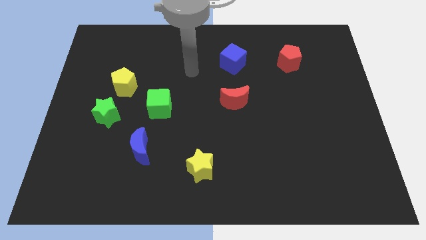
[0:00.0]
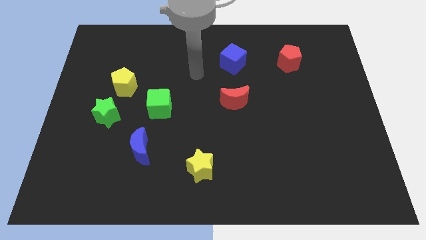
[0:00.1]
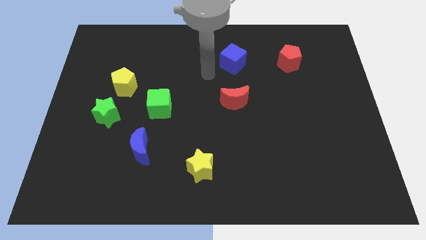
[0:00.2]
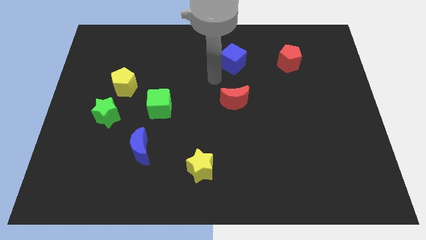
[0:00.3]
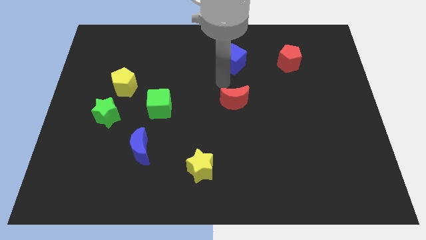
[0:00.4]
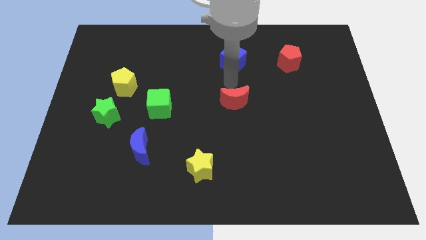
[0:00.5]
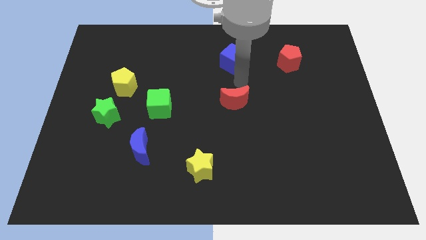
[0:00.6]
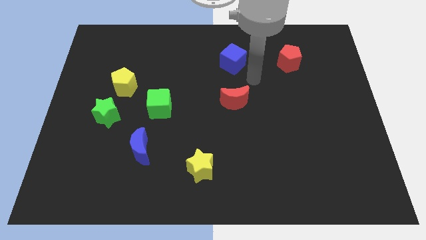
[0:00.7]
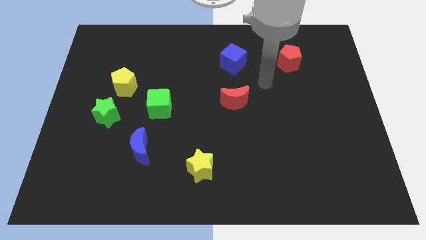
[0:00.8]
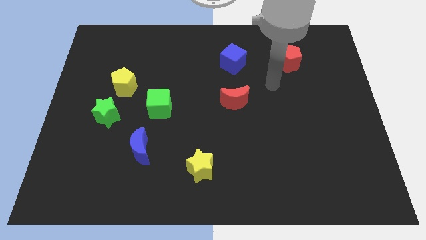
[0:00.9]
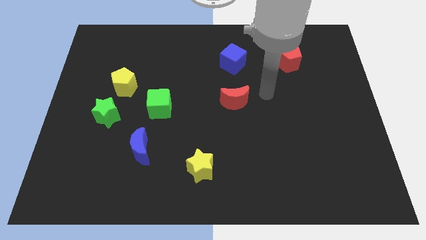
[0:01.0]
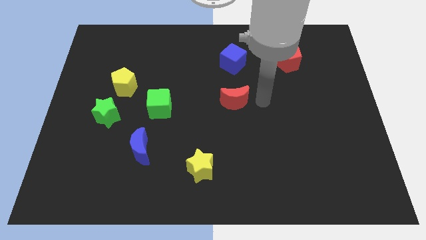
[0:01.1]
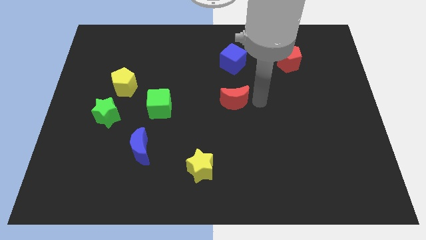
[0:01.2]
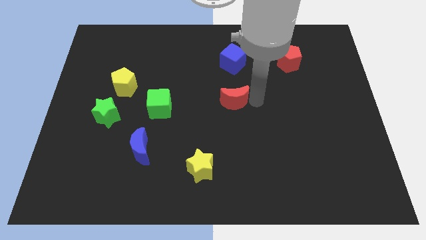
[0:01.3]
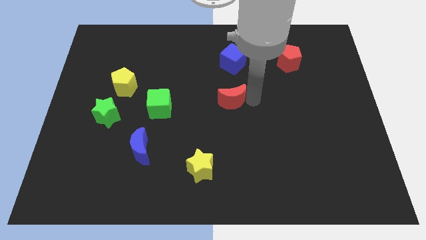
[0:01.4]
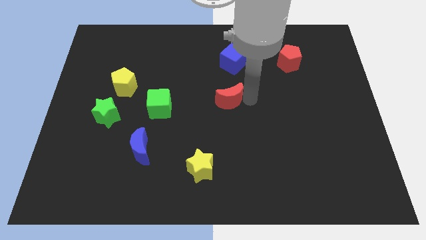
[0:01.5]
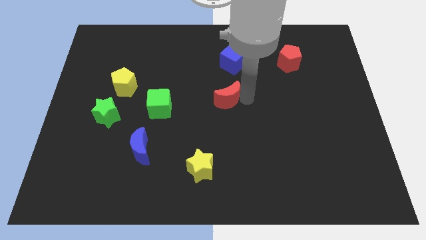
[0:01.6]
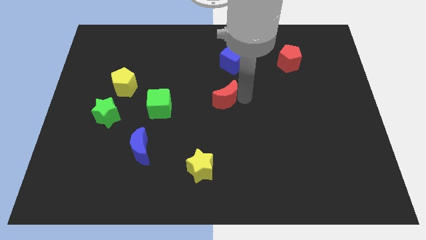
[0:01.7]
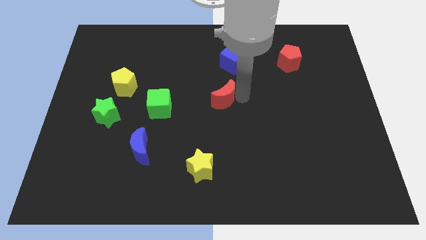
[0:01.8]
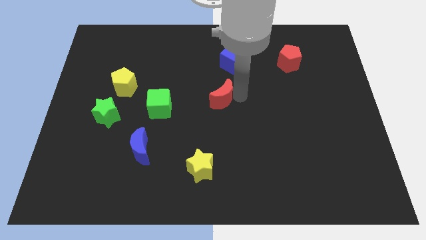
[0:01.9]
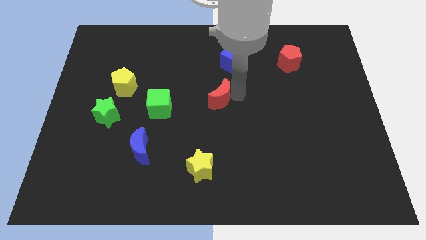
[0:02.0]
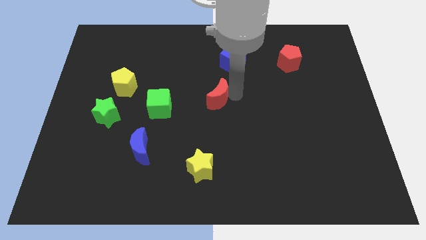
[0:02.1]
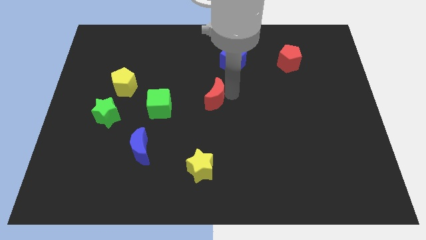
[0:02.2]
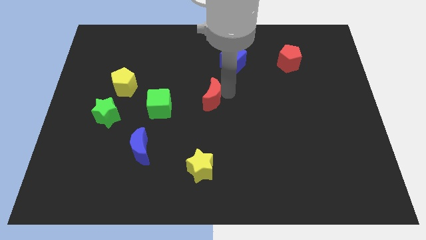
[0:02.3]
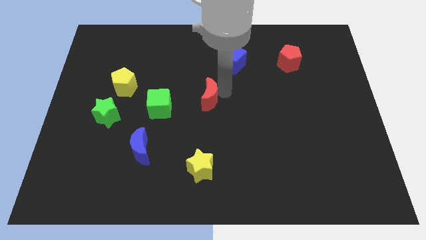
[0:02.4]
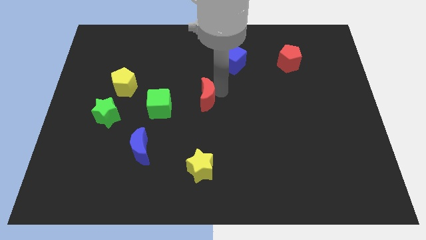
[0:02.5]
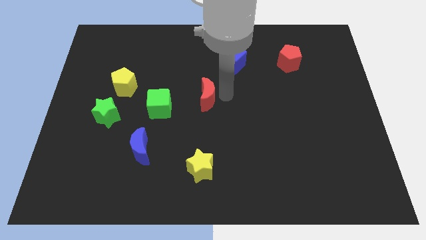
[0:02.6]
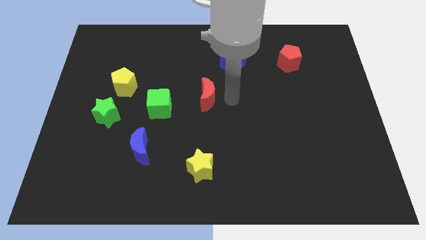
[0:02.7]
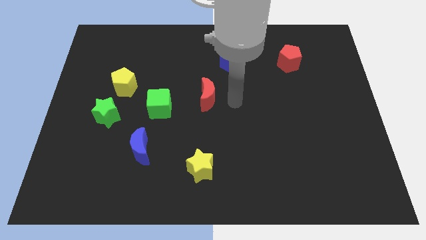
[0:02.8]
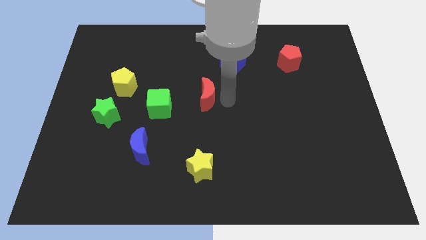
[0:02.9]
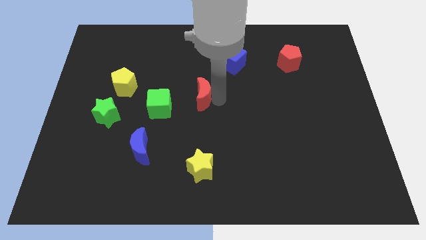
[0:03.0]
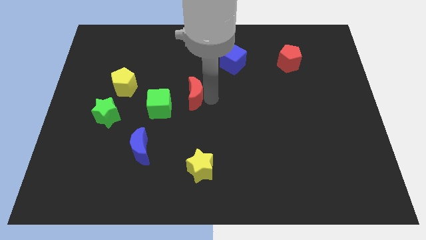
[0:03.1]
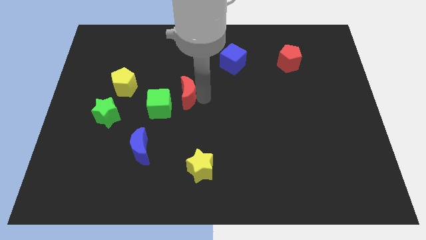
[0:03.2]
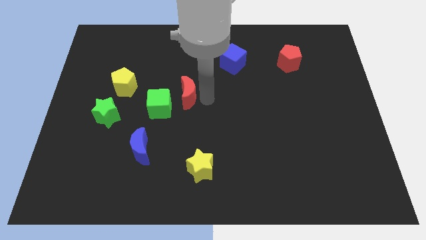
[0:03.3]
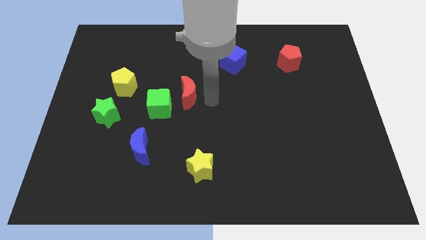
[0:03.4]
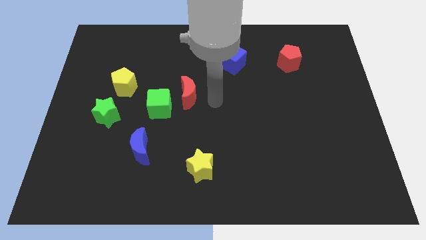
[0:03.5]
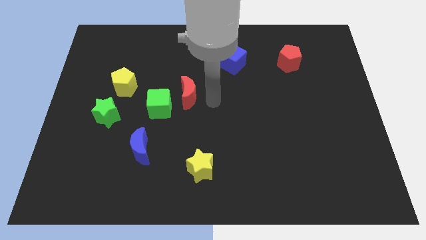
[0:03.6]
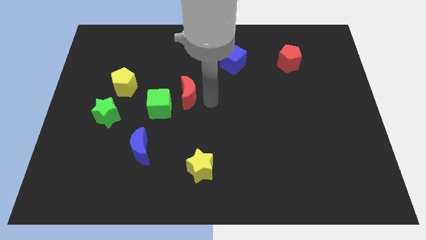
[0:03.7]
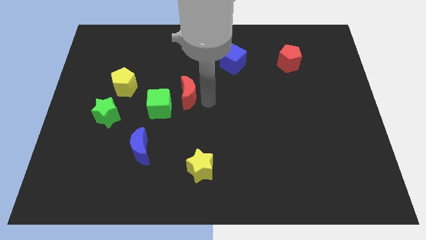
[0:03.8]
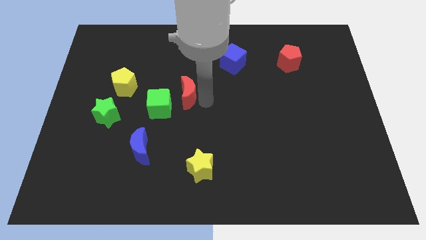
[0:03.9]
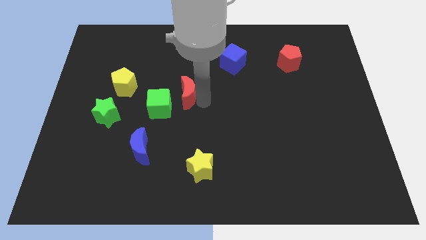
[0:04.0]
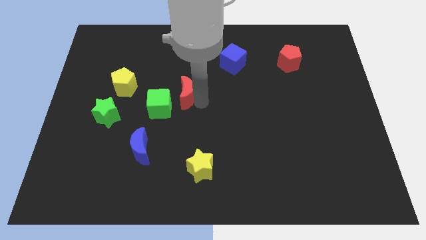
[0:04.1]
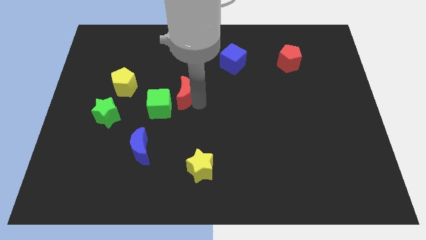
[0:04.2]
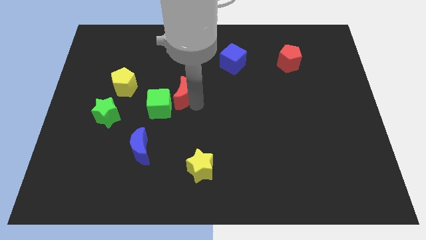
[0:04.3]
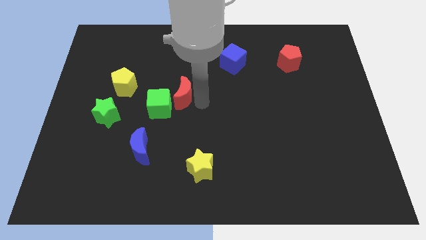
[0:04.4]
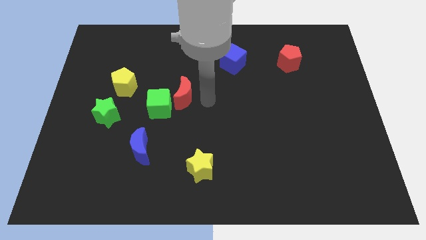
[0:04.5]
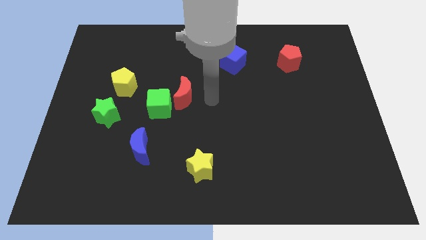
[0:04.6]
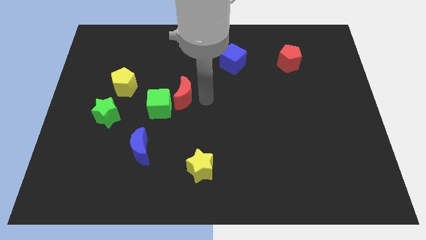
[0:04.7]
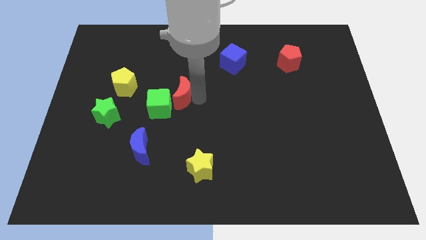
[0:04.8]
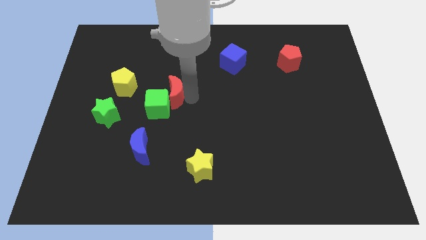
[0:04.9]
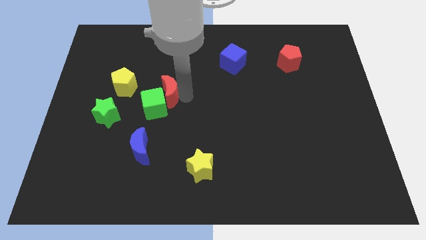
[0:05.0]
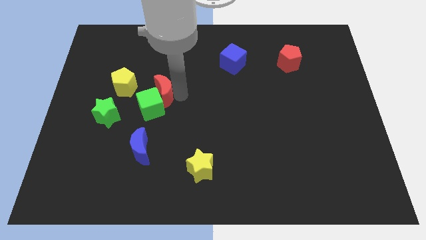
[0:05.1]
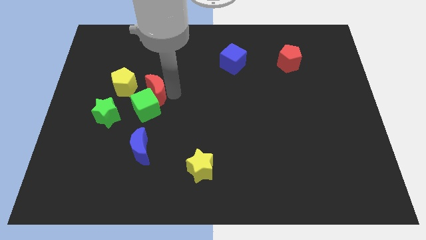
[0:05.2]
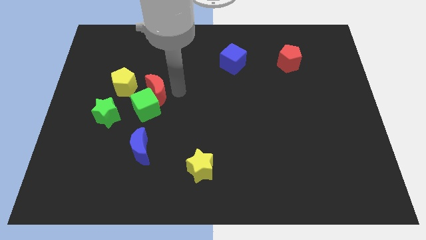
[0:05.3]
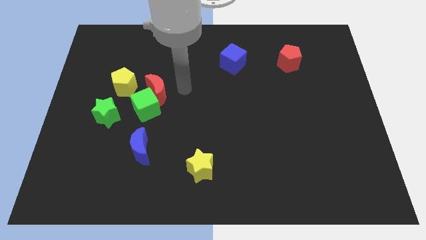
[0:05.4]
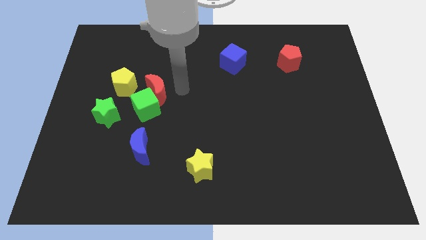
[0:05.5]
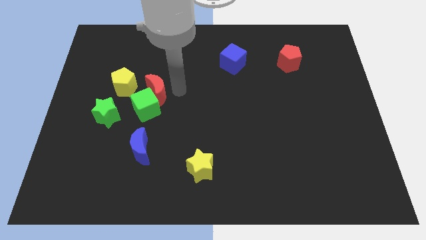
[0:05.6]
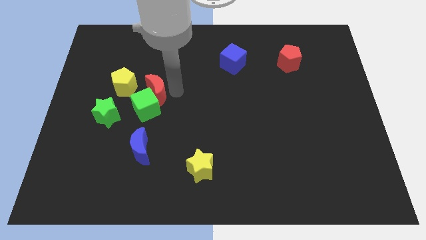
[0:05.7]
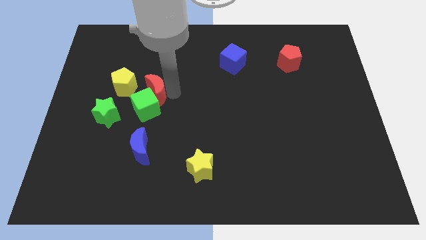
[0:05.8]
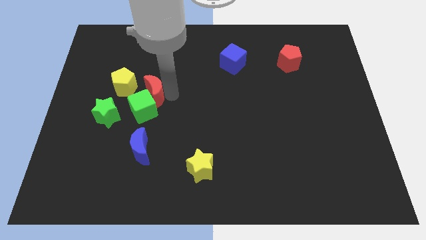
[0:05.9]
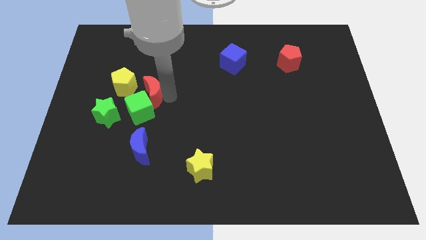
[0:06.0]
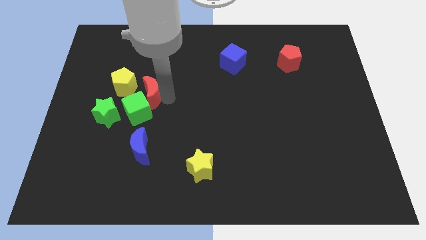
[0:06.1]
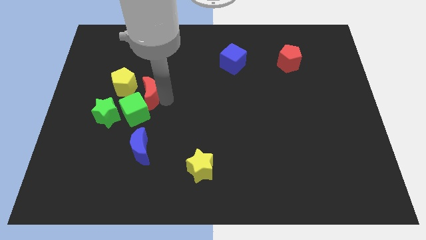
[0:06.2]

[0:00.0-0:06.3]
push the red moon left

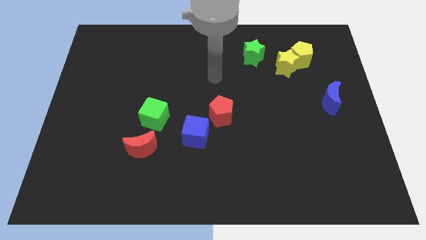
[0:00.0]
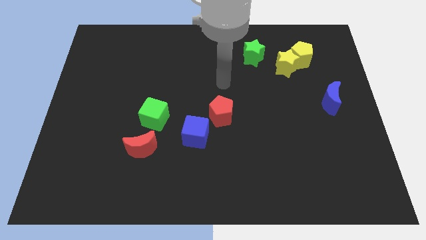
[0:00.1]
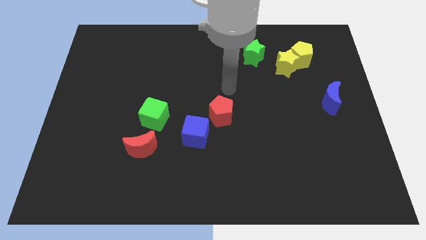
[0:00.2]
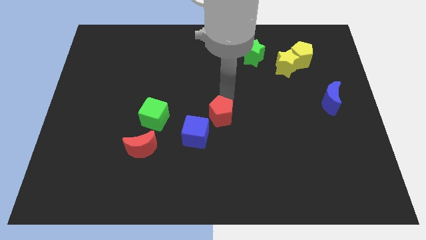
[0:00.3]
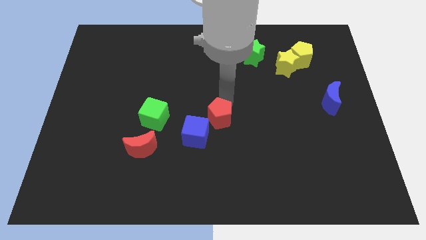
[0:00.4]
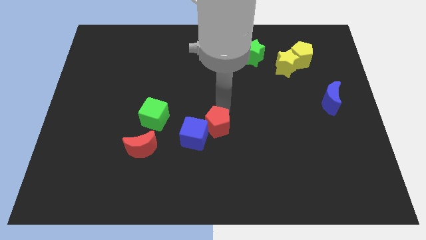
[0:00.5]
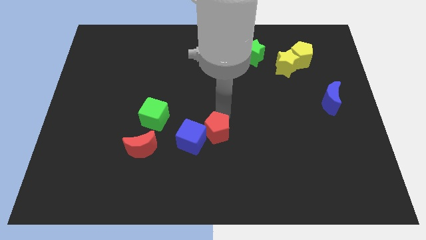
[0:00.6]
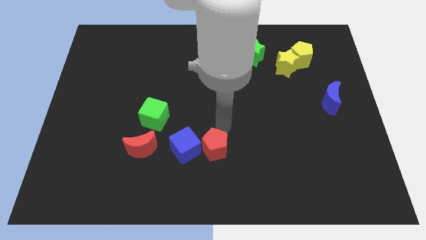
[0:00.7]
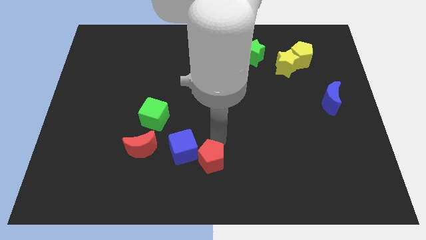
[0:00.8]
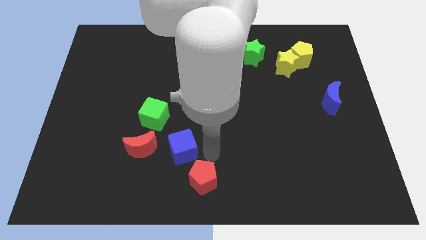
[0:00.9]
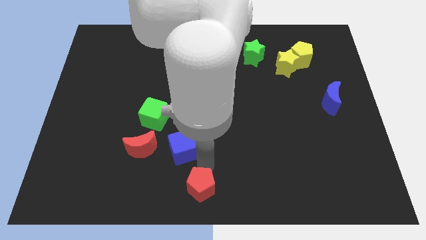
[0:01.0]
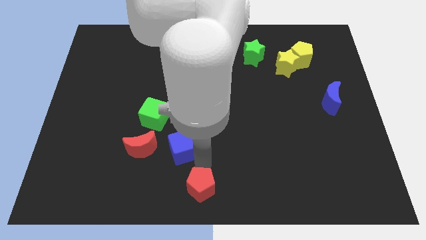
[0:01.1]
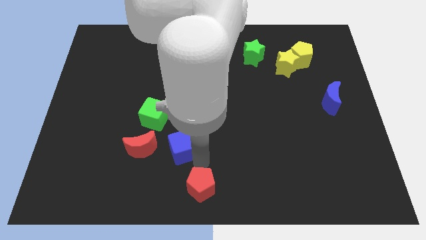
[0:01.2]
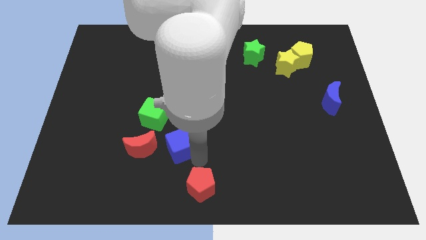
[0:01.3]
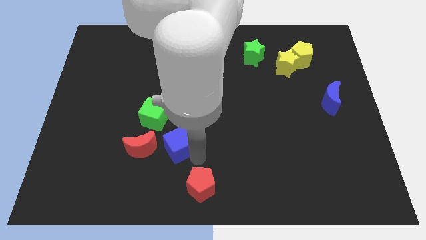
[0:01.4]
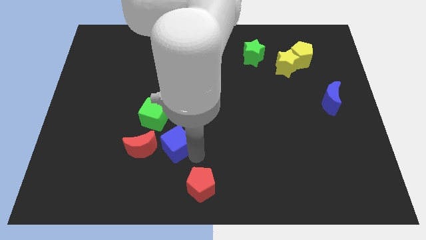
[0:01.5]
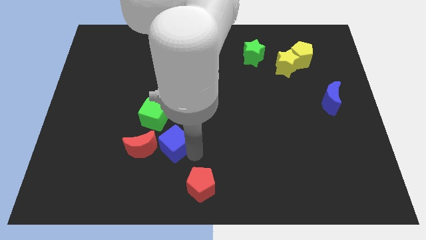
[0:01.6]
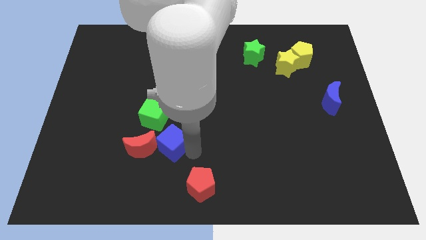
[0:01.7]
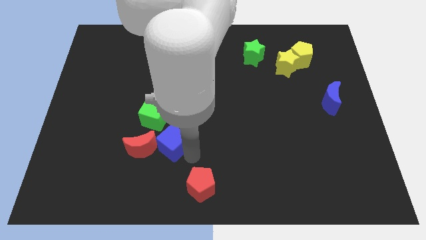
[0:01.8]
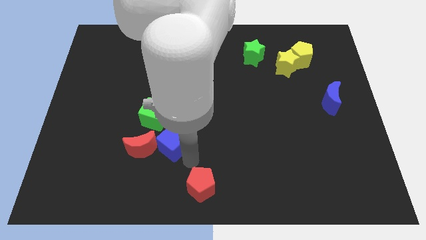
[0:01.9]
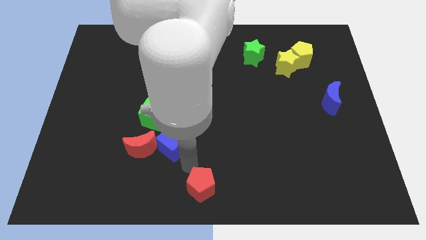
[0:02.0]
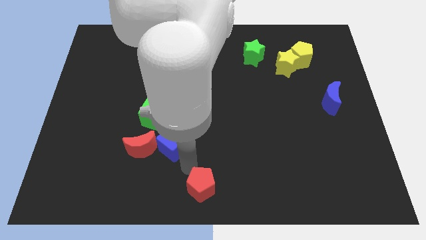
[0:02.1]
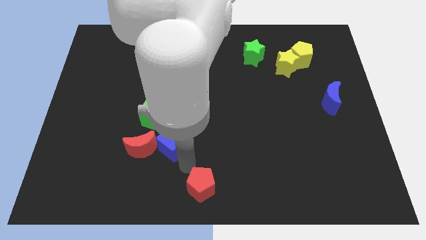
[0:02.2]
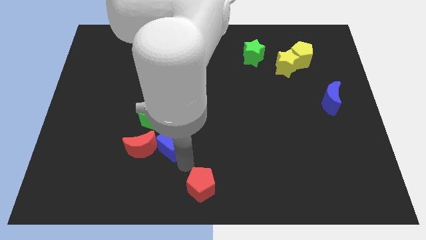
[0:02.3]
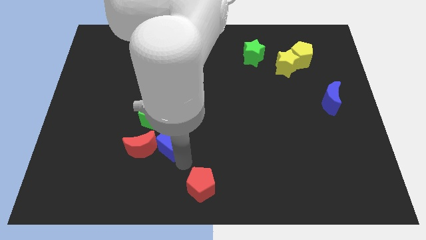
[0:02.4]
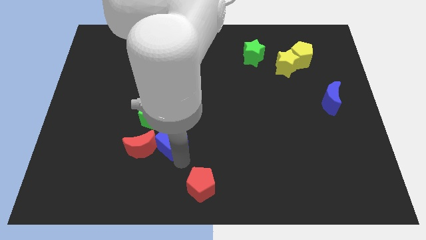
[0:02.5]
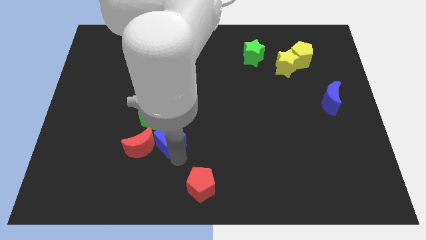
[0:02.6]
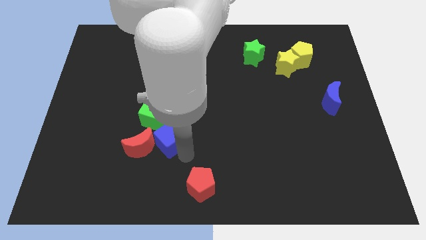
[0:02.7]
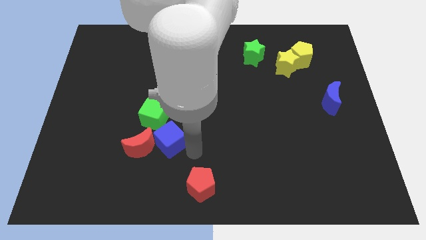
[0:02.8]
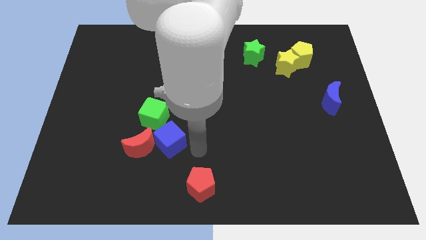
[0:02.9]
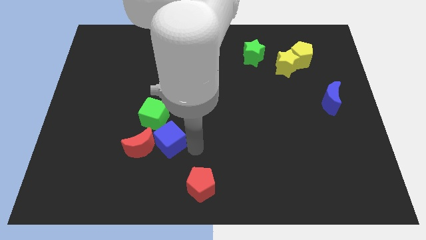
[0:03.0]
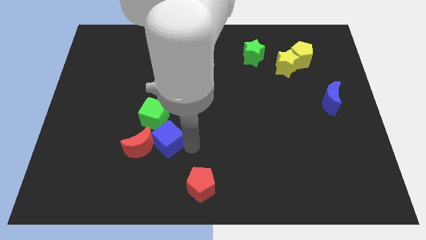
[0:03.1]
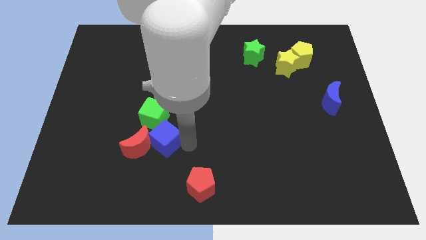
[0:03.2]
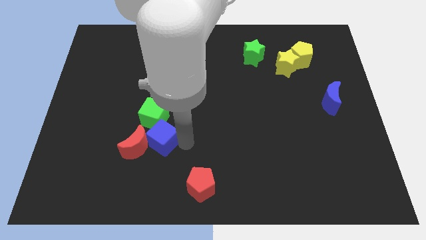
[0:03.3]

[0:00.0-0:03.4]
slightly move the blue cube to the left
